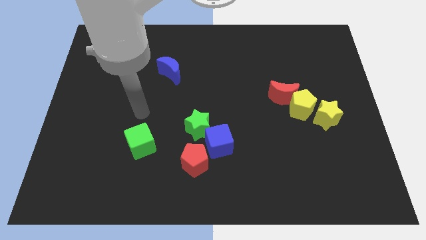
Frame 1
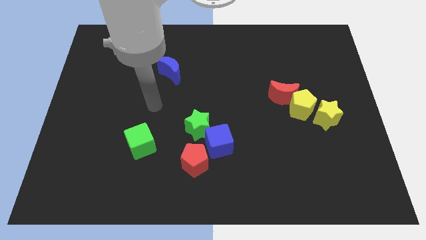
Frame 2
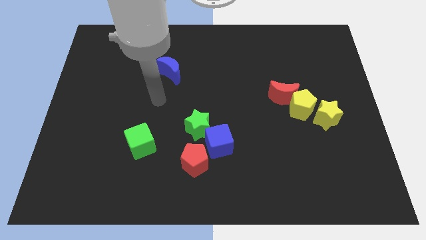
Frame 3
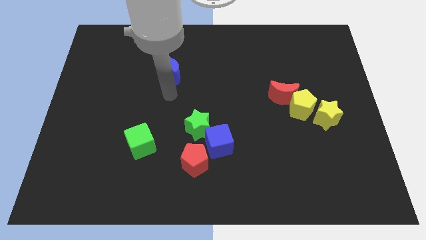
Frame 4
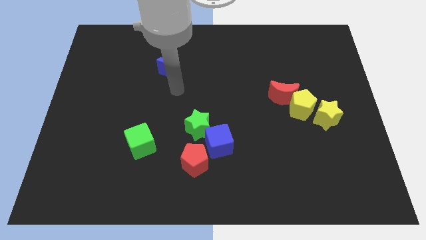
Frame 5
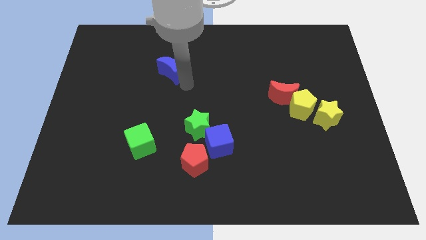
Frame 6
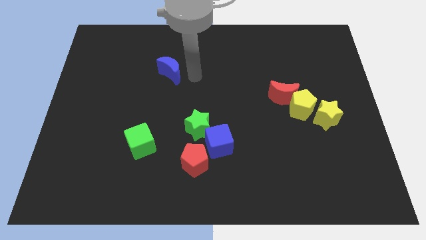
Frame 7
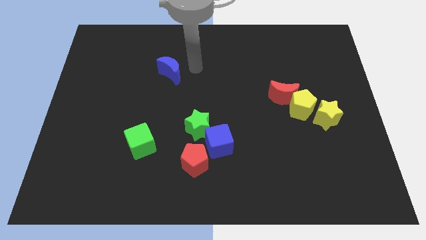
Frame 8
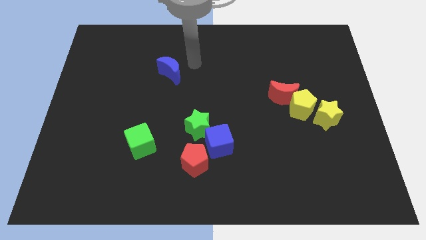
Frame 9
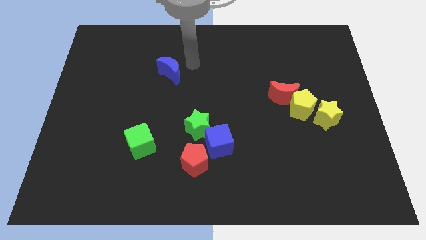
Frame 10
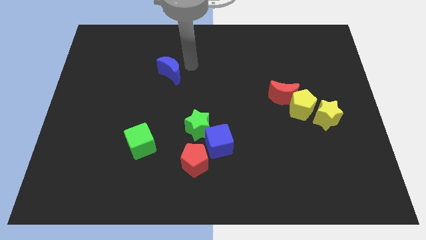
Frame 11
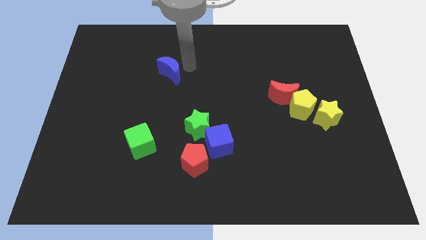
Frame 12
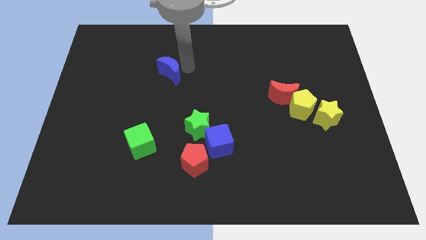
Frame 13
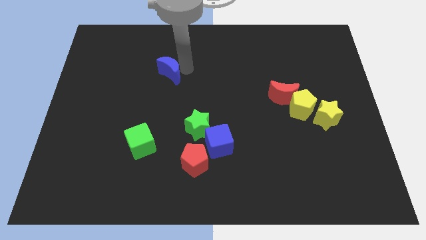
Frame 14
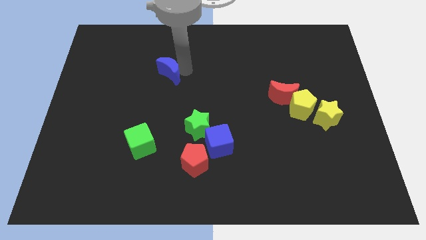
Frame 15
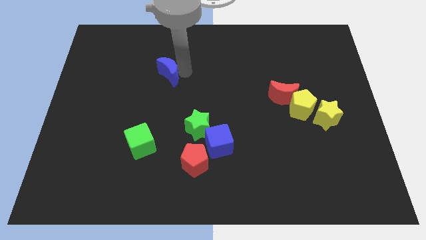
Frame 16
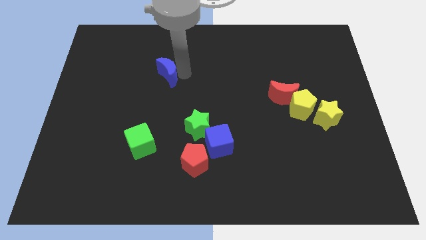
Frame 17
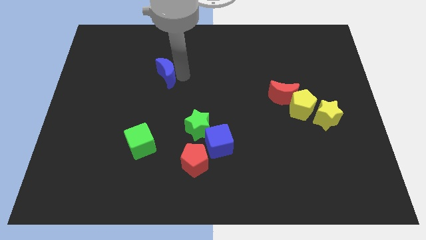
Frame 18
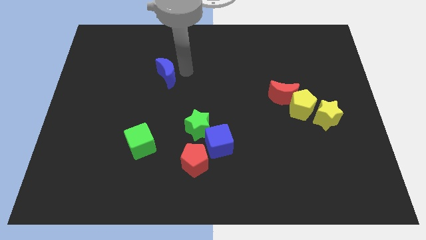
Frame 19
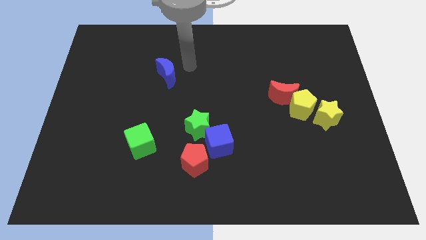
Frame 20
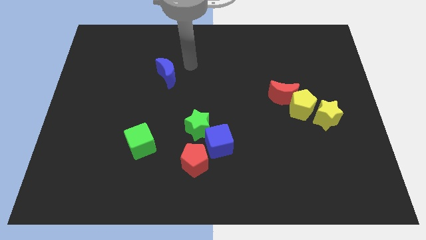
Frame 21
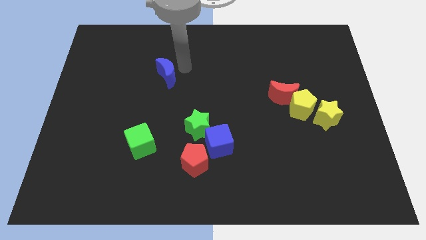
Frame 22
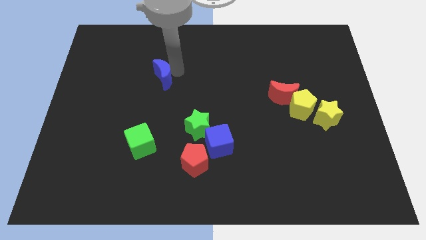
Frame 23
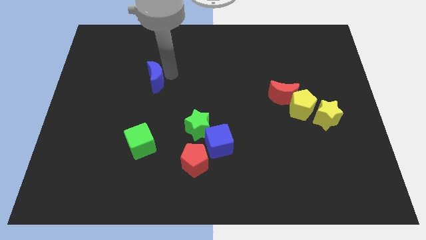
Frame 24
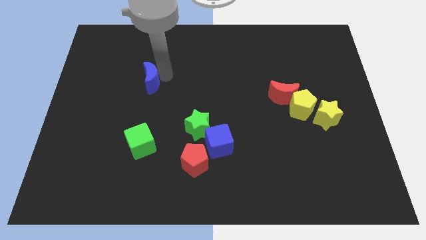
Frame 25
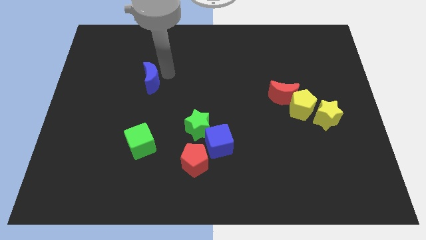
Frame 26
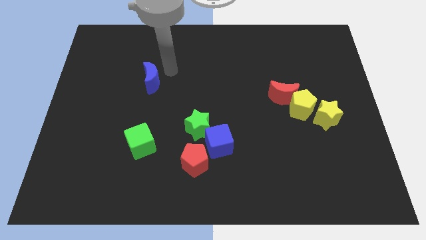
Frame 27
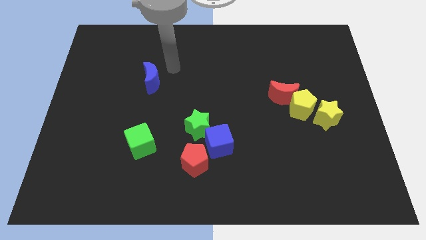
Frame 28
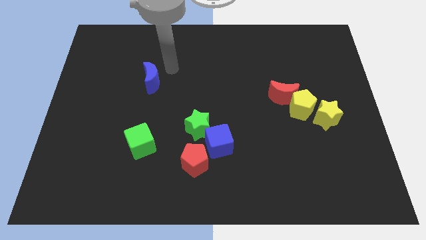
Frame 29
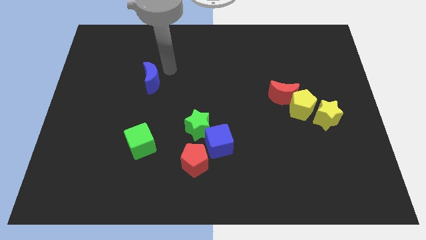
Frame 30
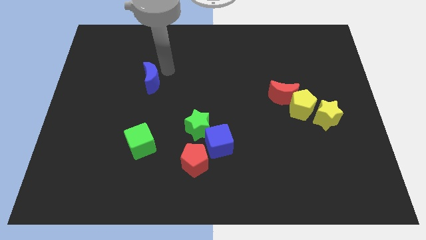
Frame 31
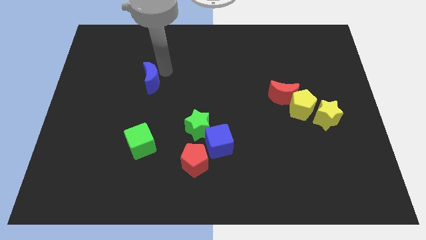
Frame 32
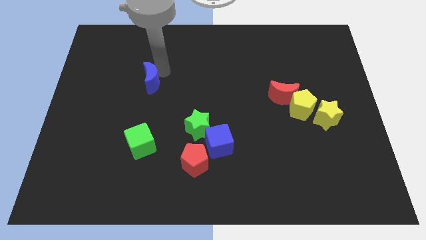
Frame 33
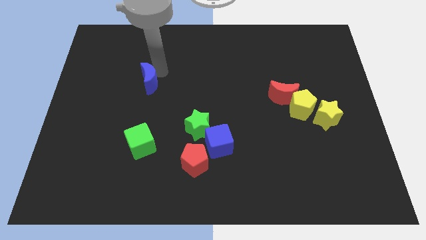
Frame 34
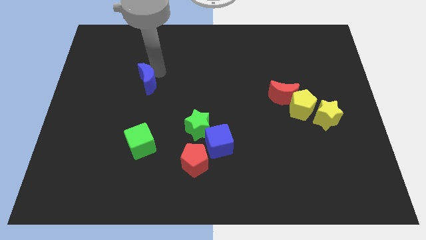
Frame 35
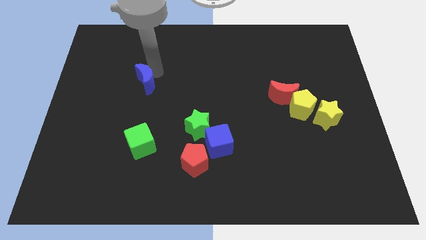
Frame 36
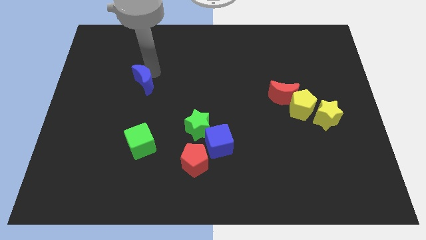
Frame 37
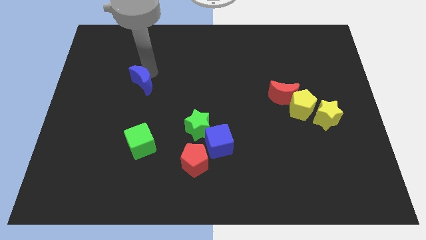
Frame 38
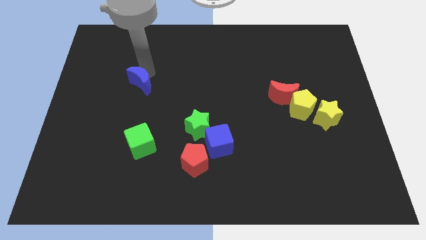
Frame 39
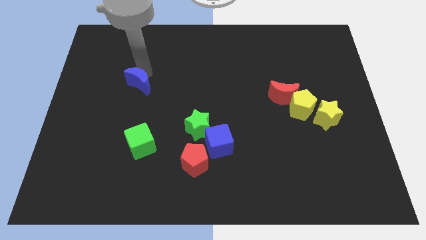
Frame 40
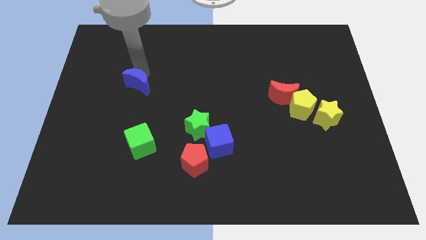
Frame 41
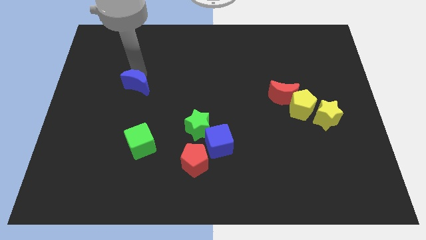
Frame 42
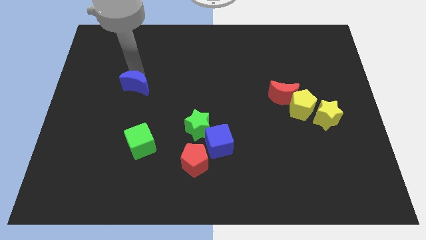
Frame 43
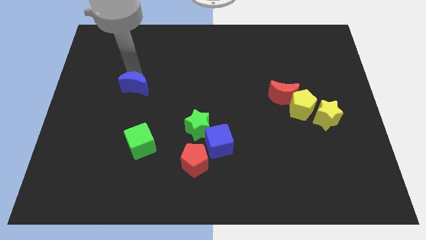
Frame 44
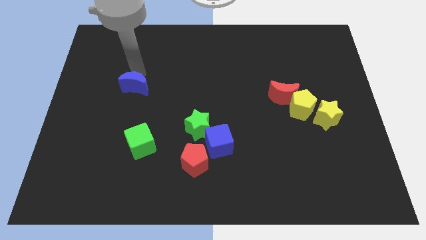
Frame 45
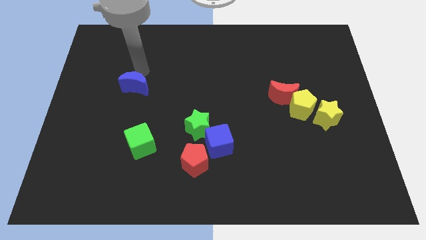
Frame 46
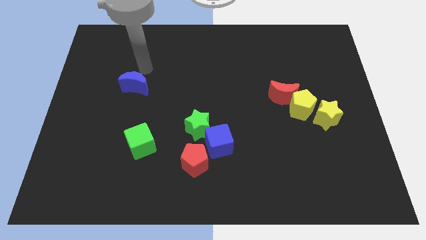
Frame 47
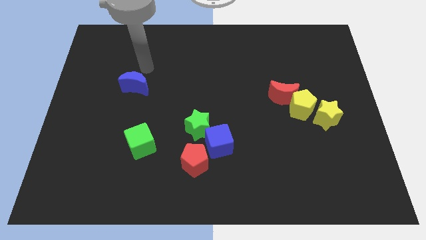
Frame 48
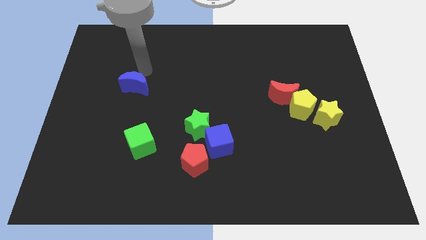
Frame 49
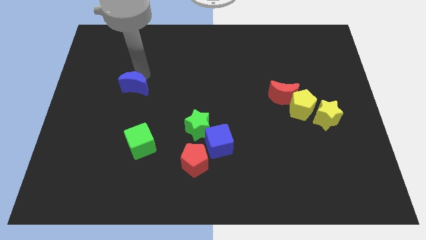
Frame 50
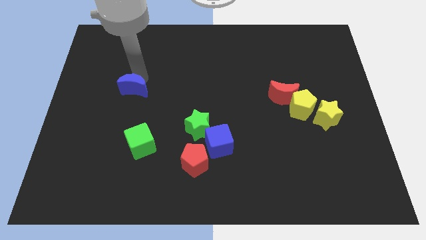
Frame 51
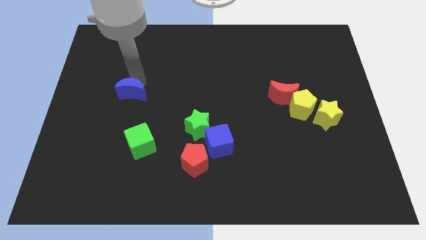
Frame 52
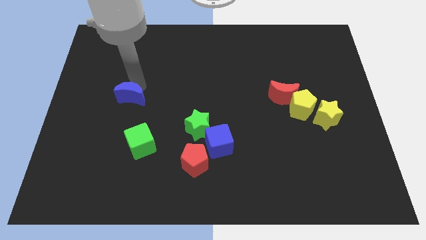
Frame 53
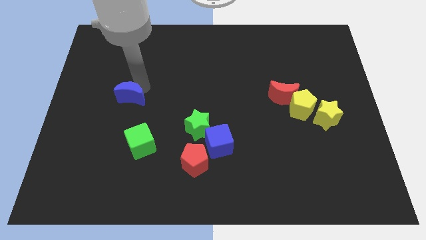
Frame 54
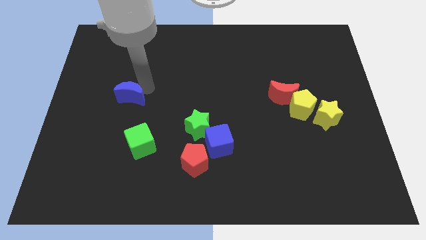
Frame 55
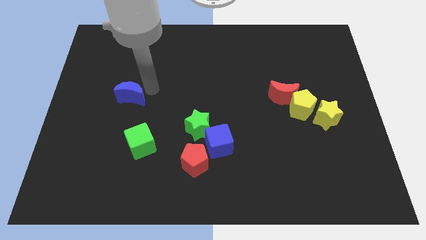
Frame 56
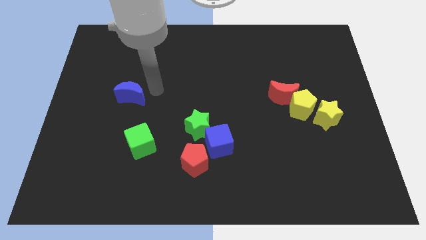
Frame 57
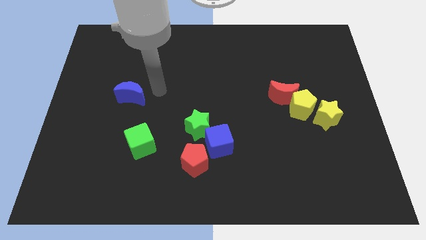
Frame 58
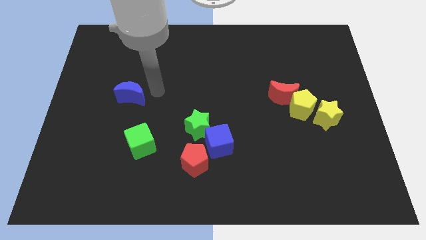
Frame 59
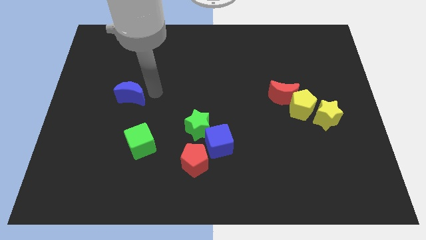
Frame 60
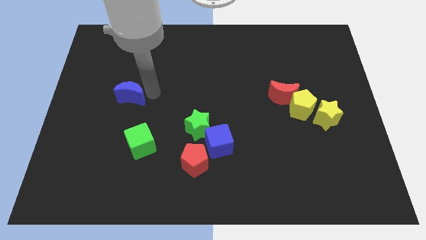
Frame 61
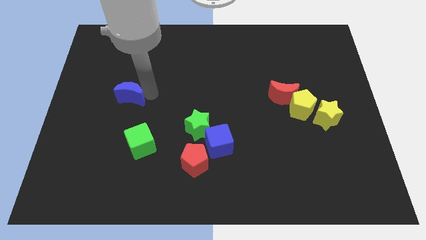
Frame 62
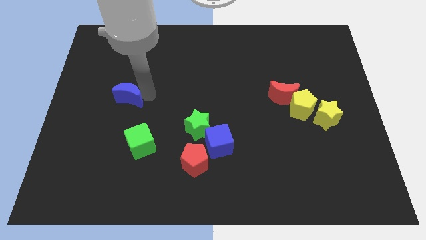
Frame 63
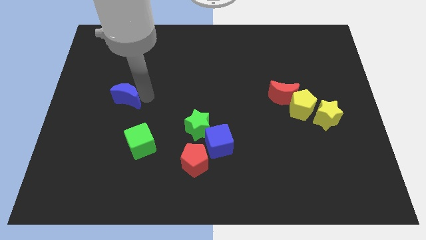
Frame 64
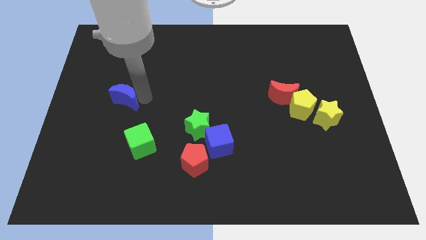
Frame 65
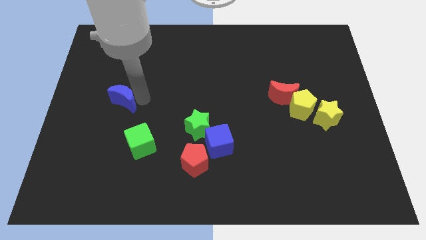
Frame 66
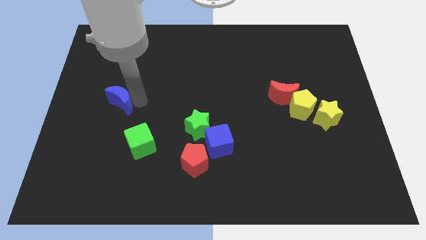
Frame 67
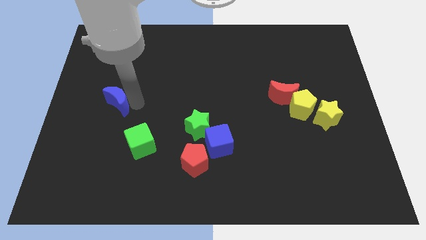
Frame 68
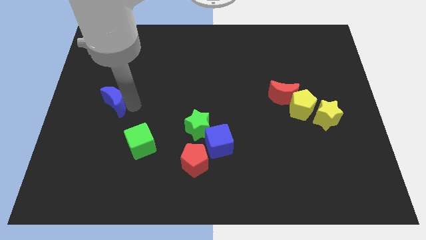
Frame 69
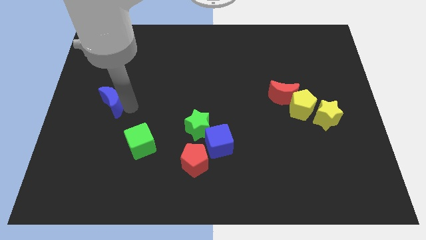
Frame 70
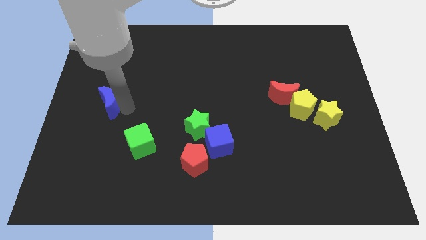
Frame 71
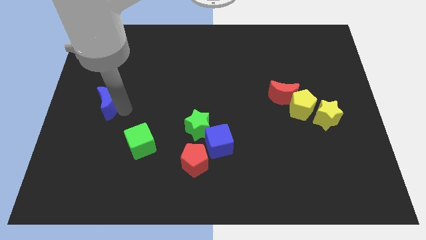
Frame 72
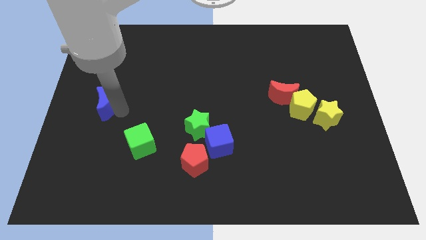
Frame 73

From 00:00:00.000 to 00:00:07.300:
push the blue moon to the left side of the board
